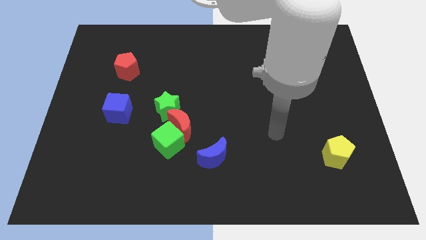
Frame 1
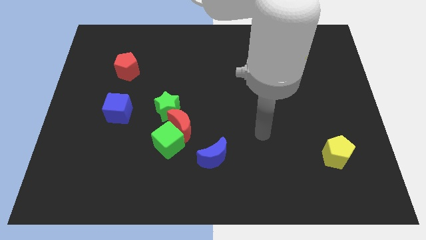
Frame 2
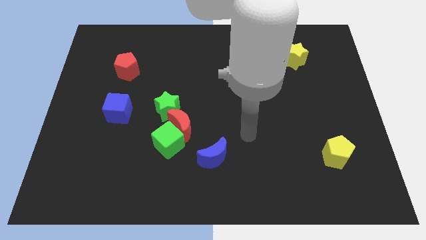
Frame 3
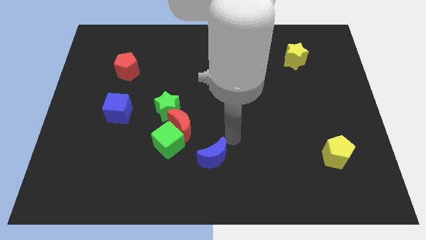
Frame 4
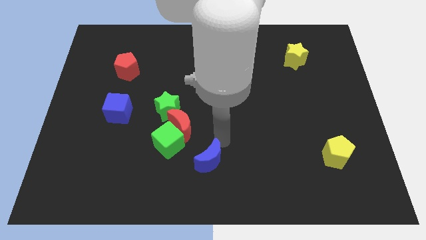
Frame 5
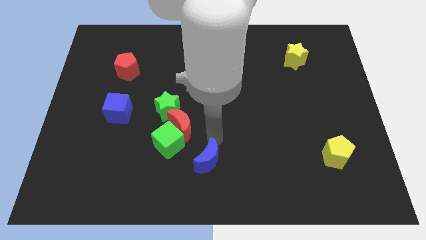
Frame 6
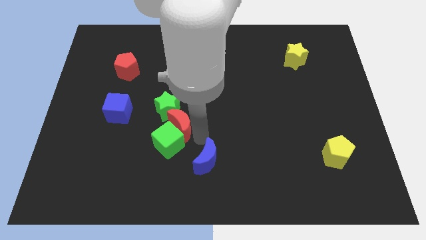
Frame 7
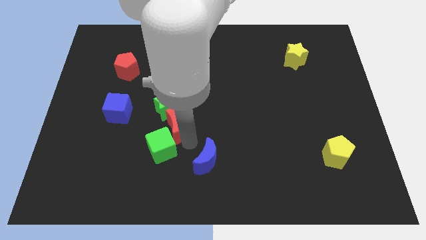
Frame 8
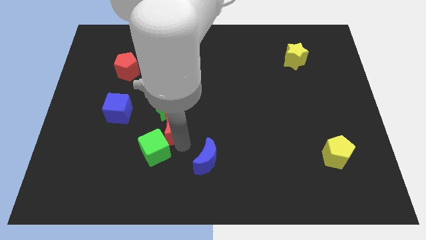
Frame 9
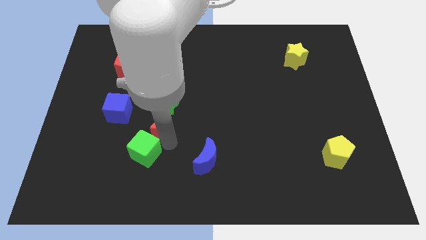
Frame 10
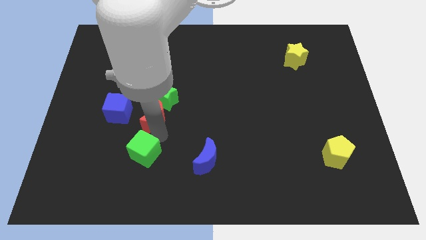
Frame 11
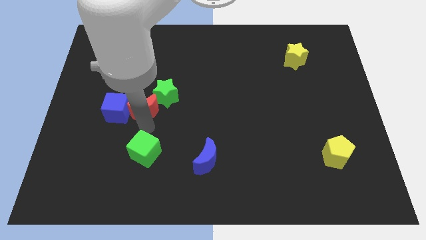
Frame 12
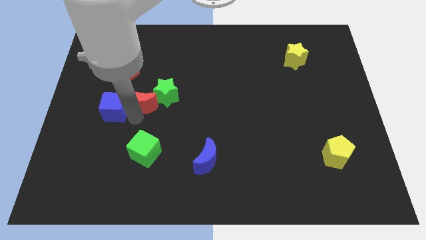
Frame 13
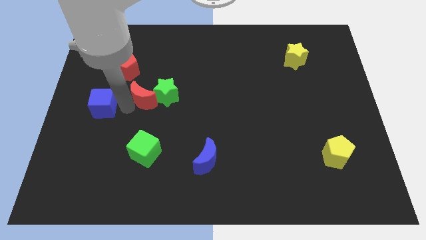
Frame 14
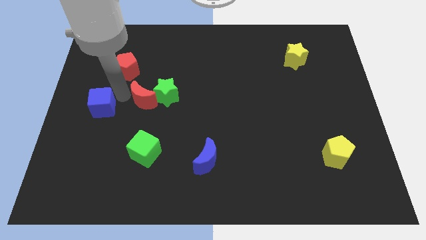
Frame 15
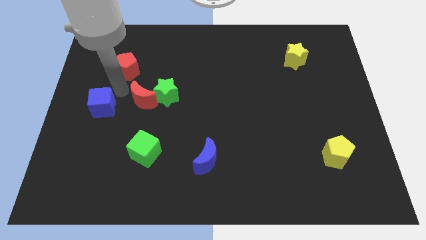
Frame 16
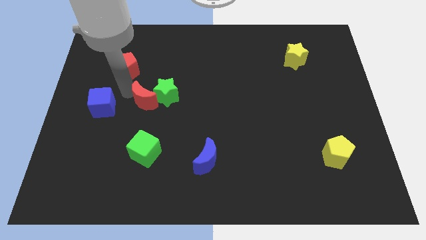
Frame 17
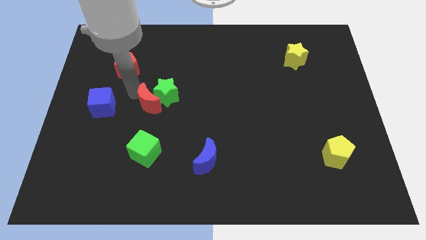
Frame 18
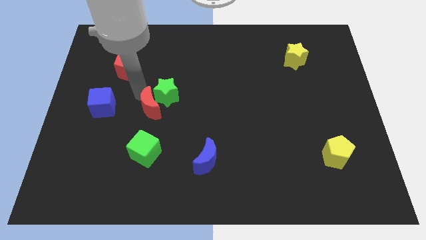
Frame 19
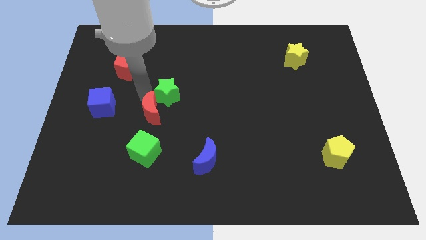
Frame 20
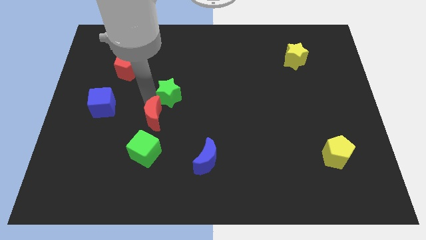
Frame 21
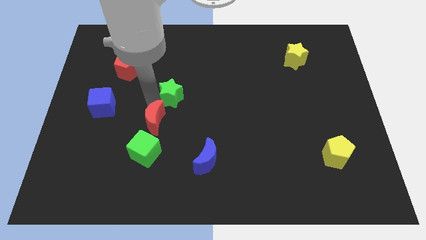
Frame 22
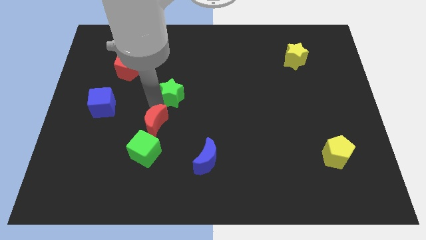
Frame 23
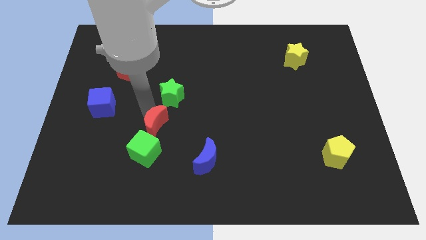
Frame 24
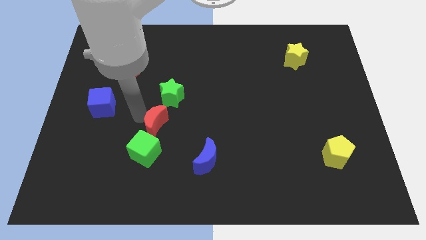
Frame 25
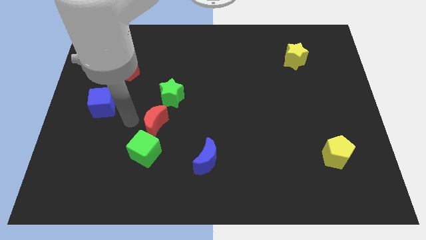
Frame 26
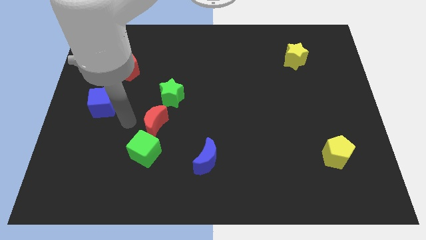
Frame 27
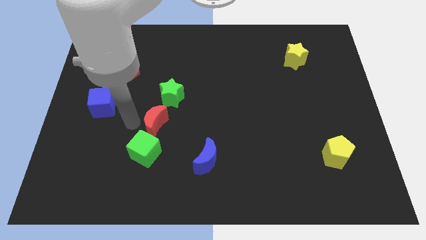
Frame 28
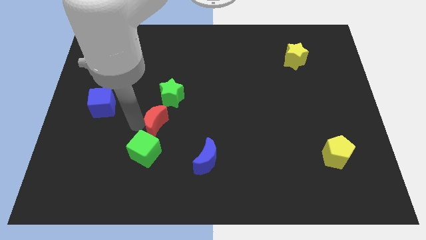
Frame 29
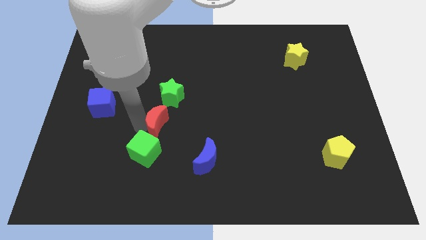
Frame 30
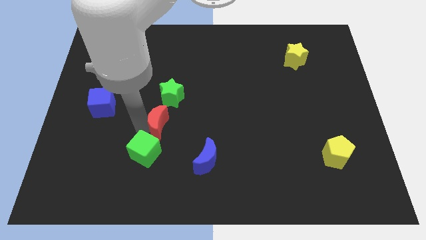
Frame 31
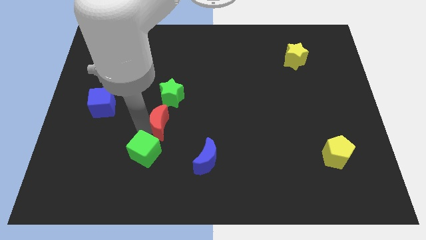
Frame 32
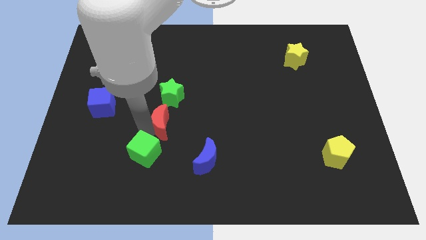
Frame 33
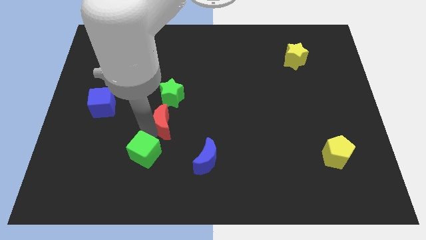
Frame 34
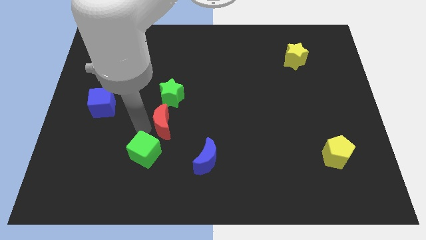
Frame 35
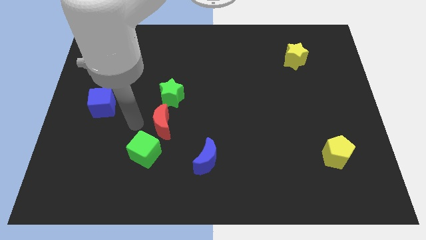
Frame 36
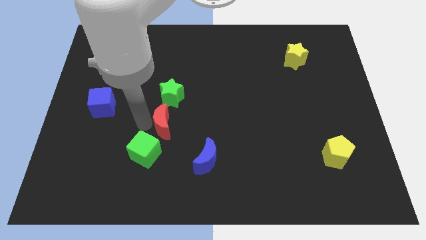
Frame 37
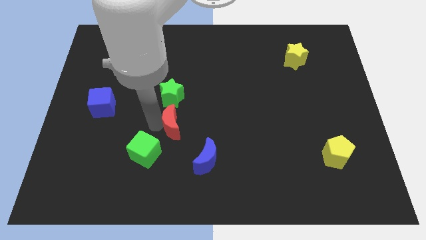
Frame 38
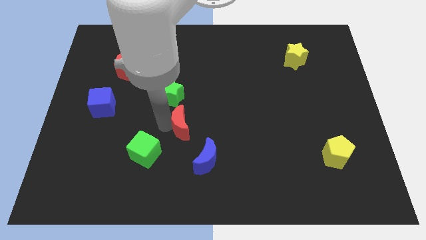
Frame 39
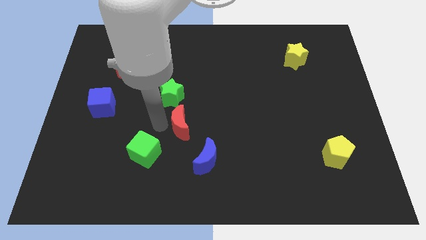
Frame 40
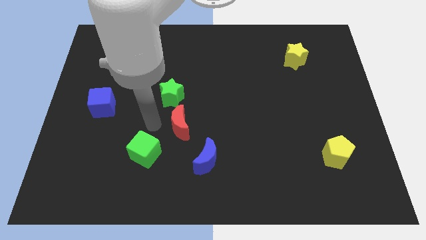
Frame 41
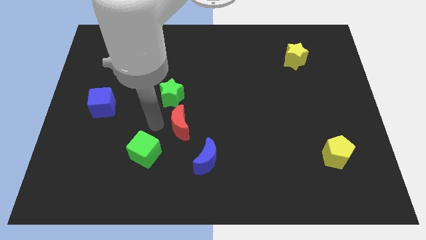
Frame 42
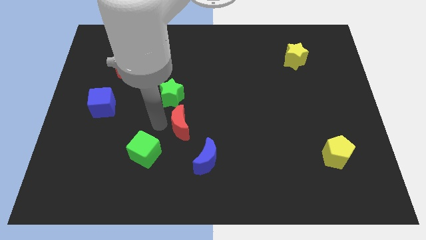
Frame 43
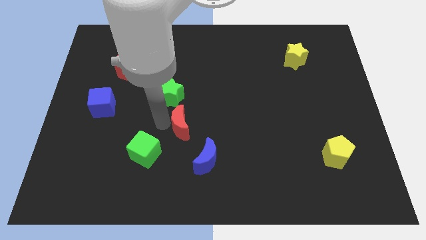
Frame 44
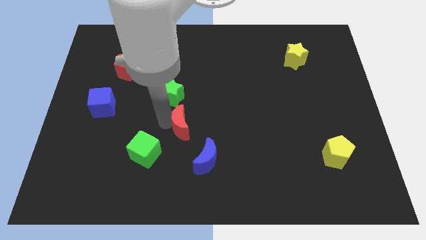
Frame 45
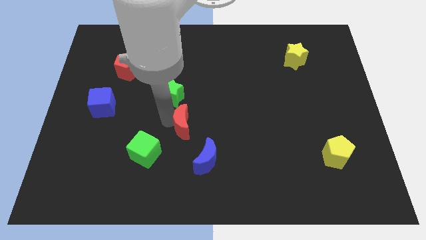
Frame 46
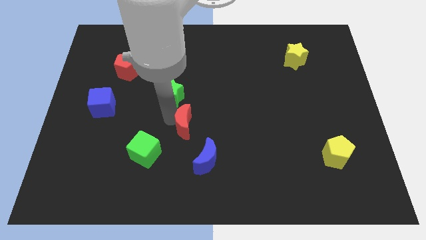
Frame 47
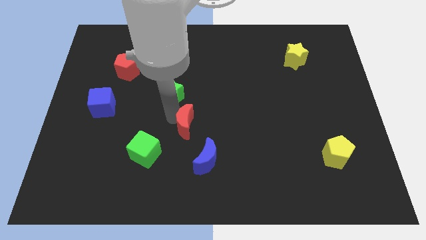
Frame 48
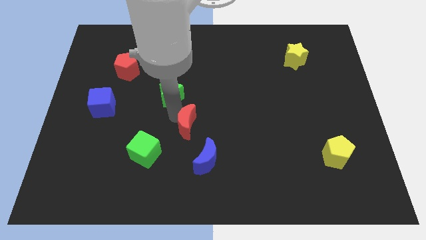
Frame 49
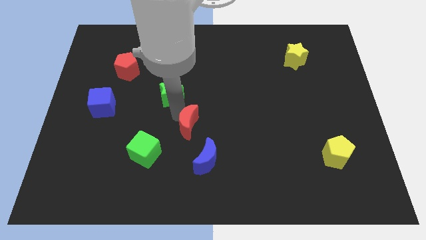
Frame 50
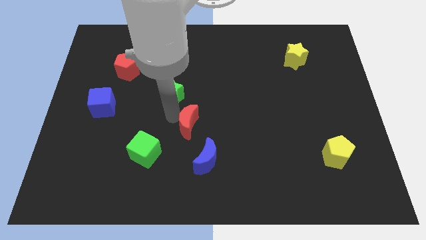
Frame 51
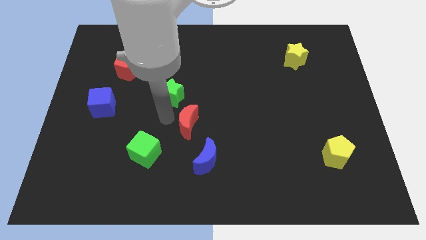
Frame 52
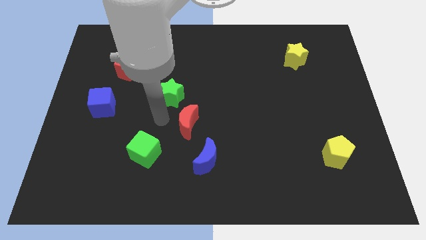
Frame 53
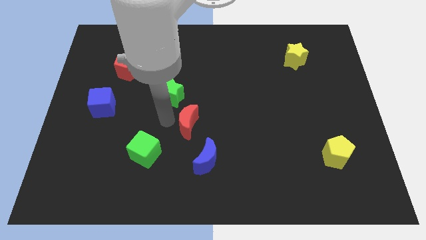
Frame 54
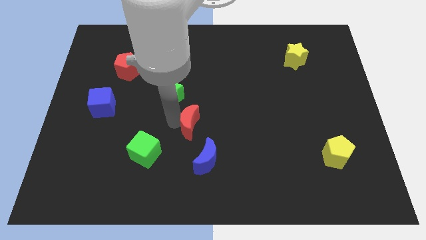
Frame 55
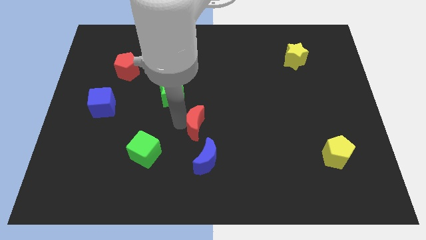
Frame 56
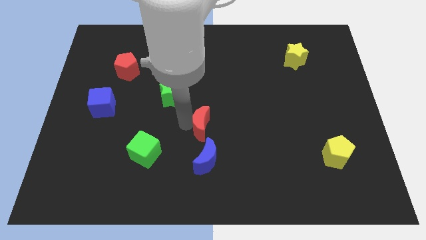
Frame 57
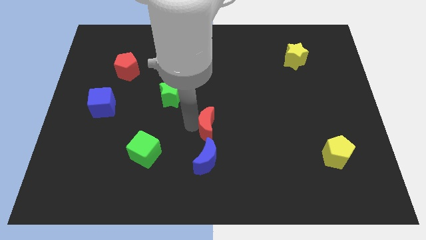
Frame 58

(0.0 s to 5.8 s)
move the red moon away from the green cube and green star

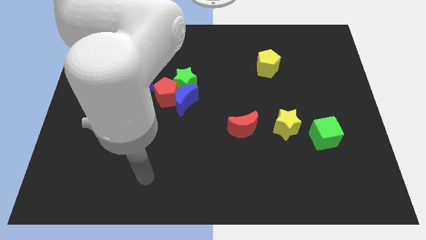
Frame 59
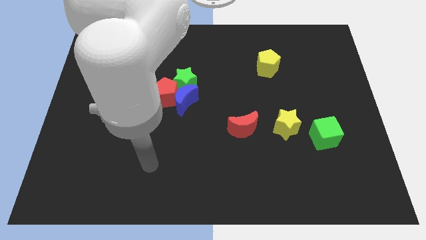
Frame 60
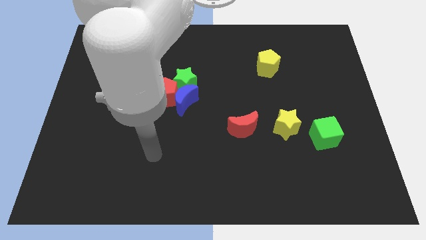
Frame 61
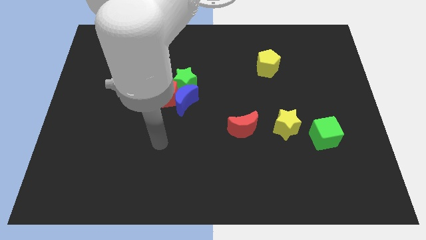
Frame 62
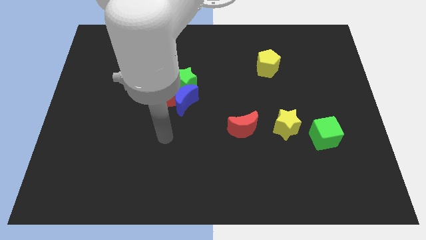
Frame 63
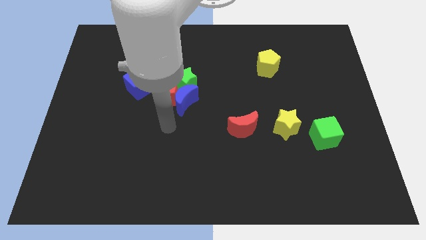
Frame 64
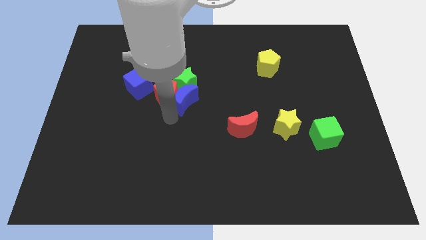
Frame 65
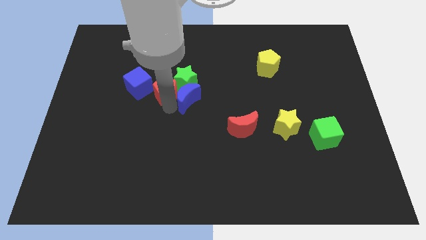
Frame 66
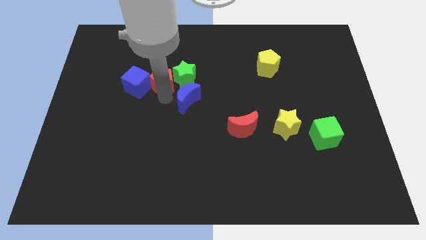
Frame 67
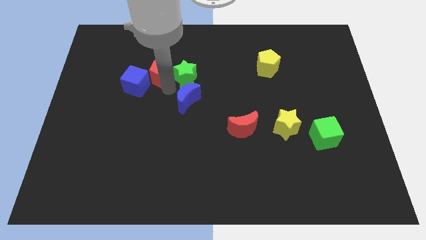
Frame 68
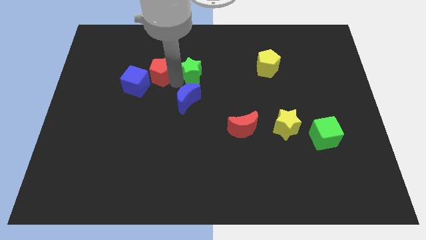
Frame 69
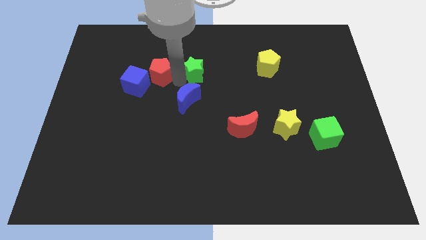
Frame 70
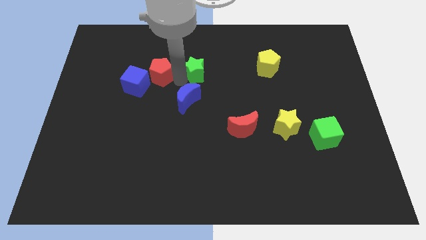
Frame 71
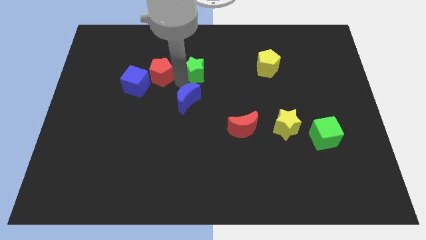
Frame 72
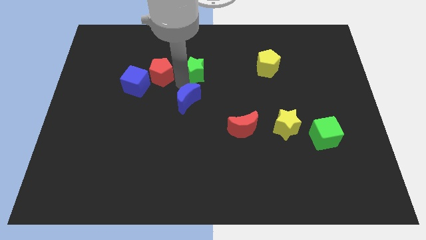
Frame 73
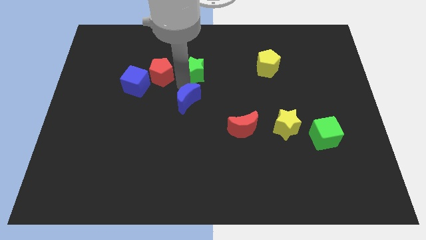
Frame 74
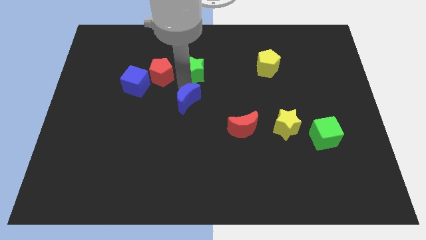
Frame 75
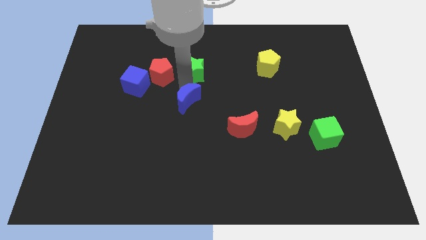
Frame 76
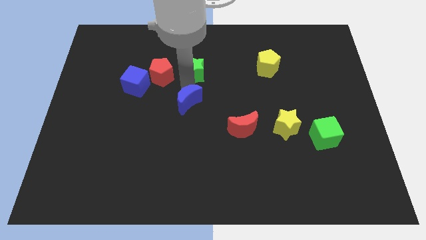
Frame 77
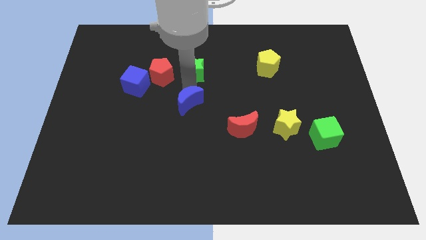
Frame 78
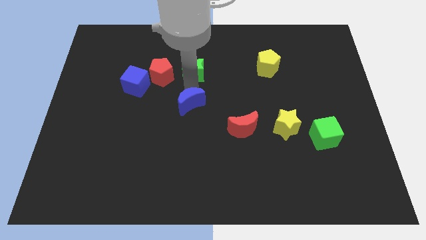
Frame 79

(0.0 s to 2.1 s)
move the blue moon away from the red pentagon and green star

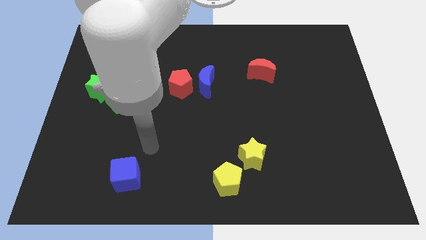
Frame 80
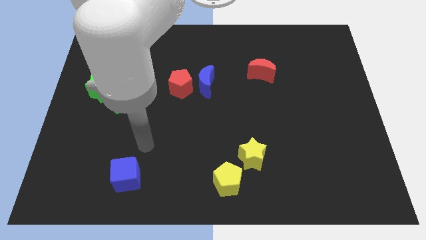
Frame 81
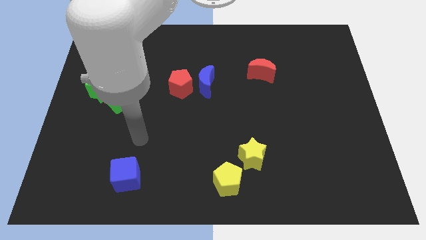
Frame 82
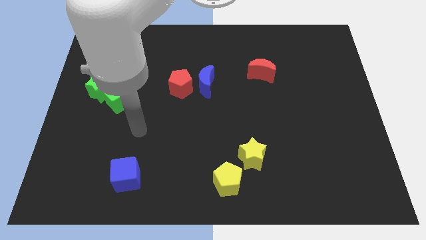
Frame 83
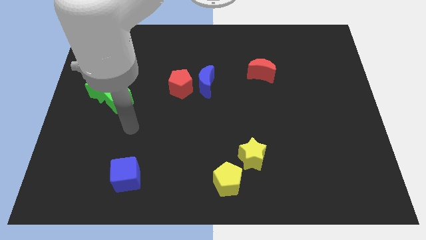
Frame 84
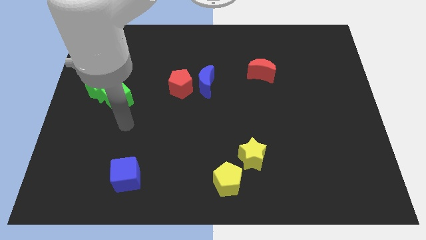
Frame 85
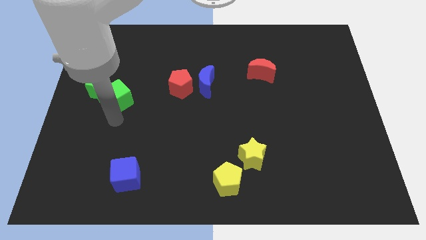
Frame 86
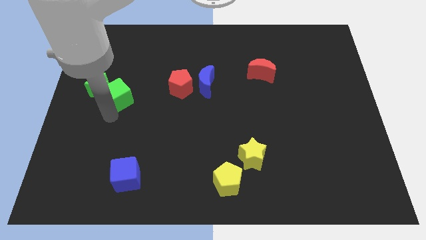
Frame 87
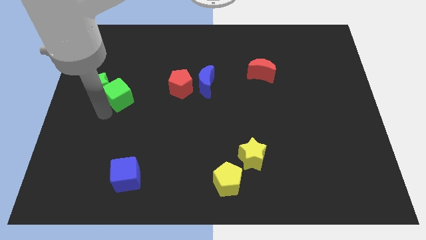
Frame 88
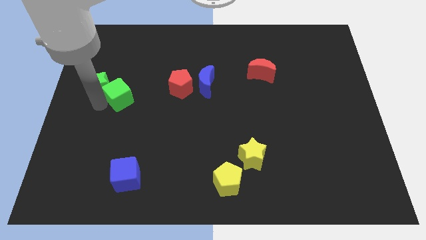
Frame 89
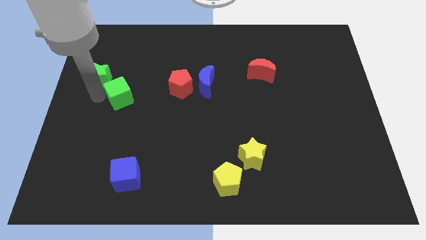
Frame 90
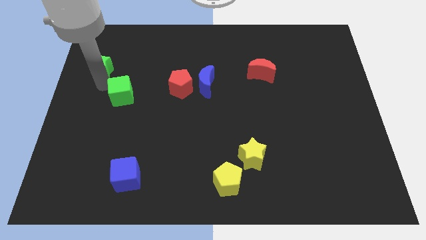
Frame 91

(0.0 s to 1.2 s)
move the green cube away from the green star

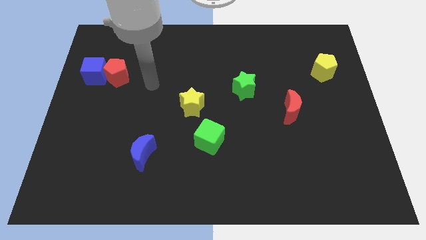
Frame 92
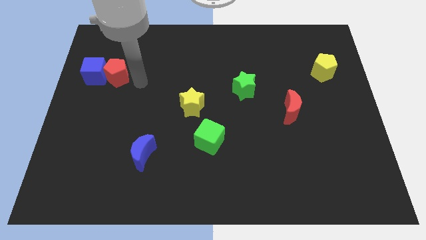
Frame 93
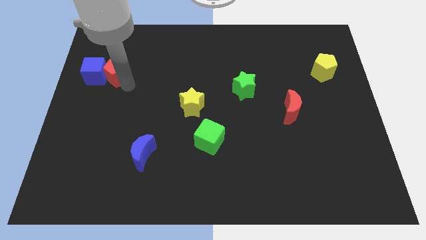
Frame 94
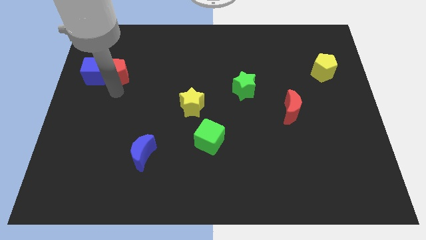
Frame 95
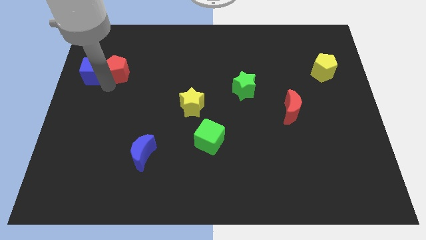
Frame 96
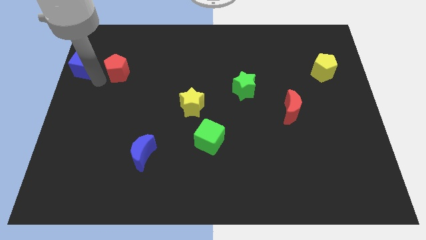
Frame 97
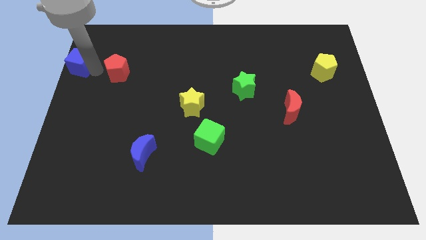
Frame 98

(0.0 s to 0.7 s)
separate the red pentagon from the blue cube
